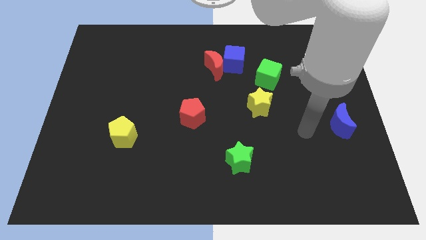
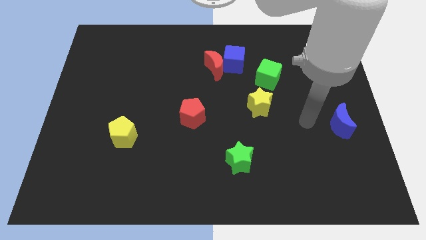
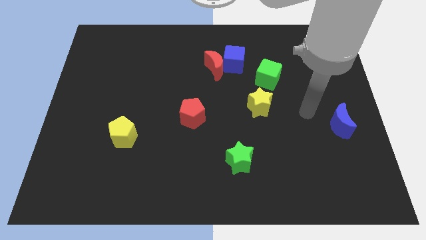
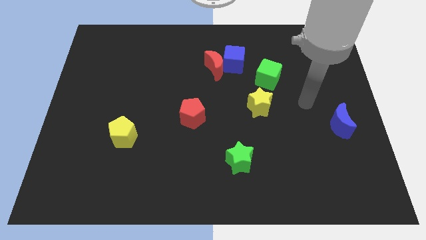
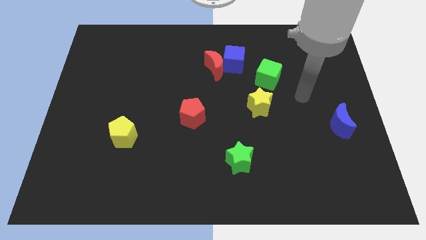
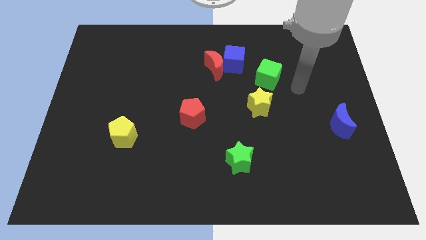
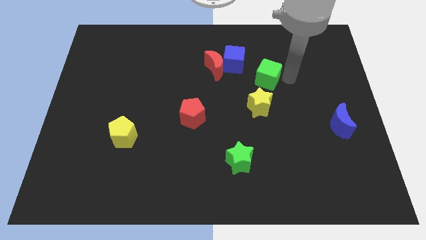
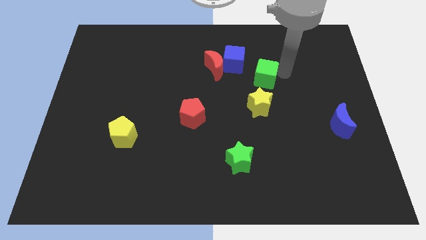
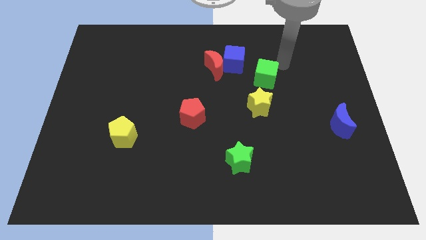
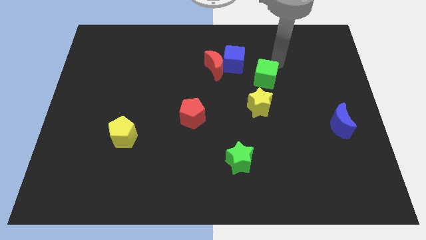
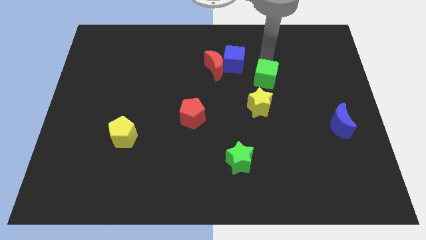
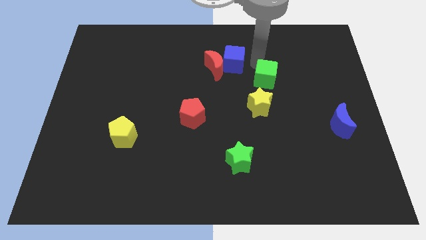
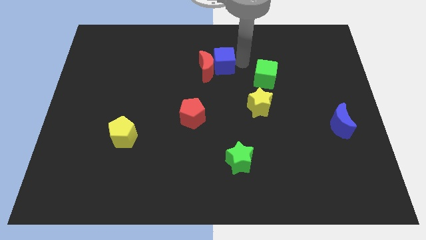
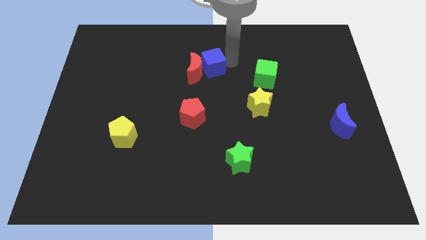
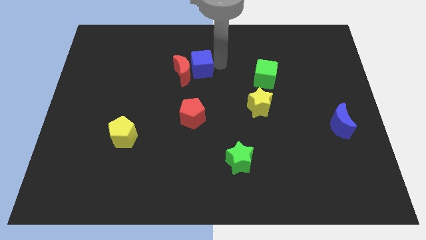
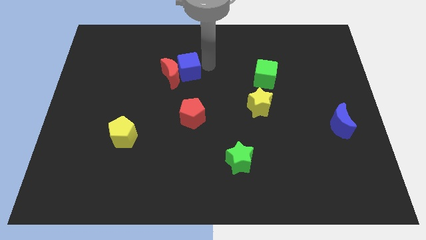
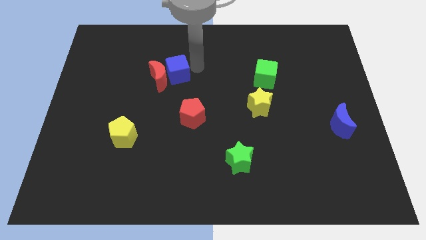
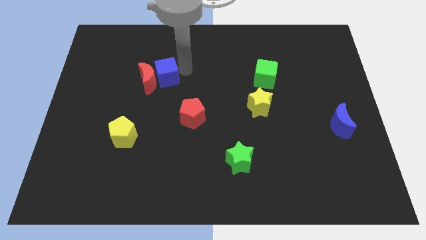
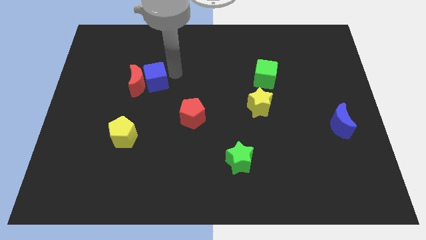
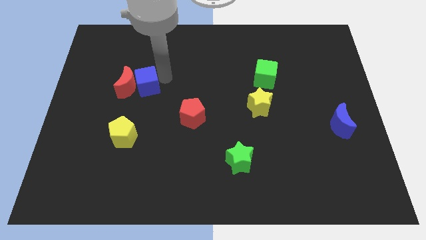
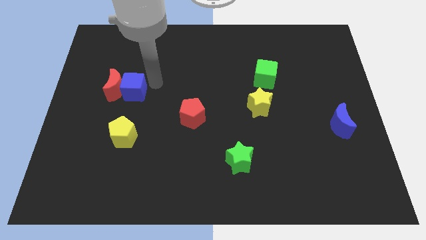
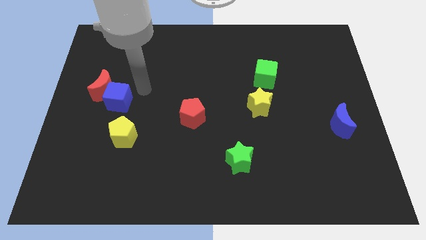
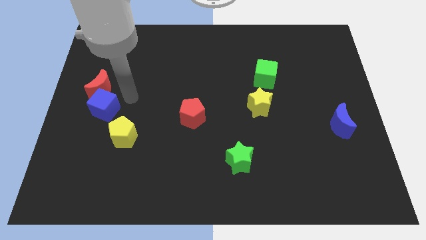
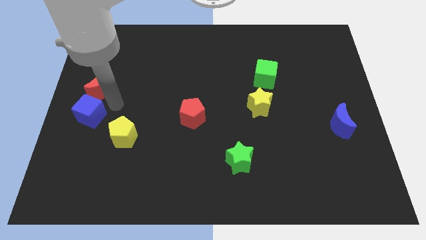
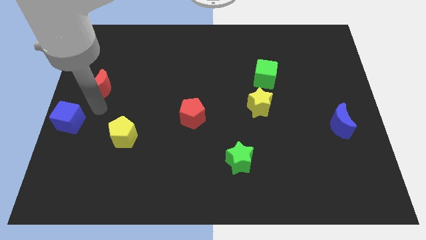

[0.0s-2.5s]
pull the red moon apart from the blue cube

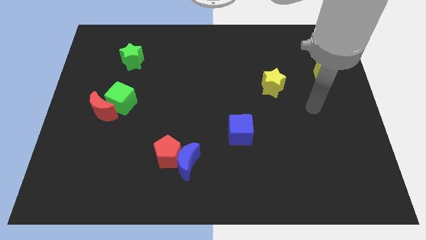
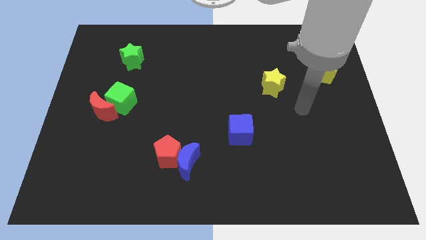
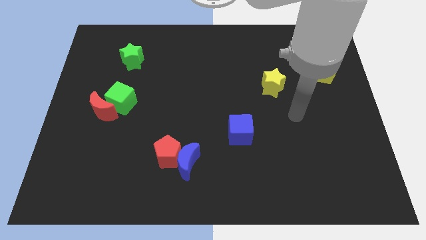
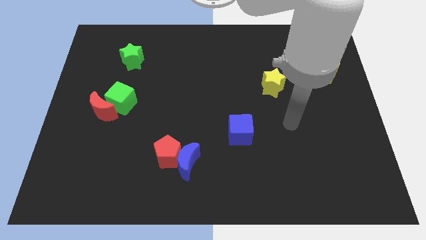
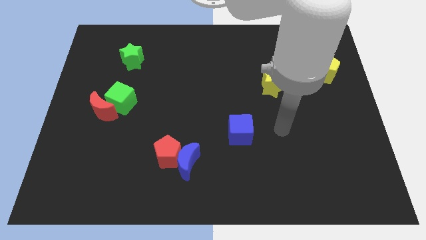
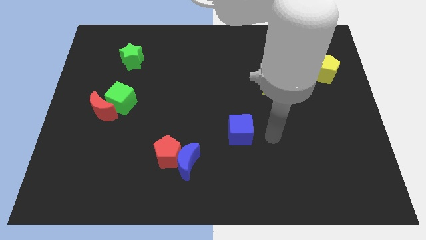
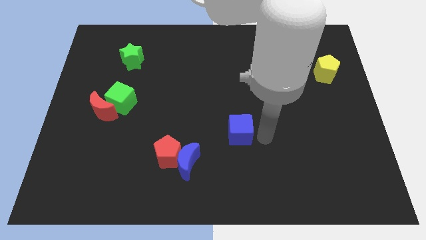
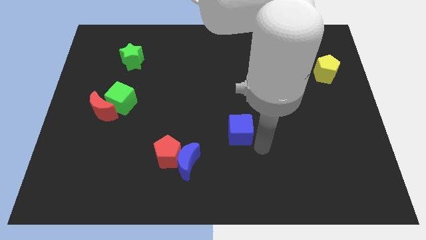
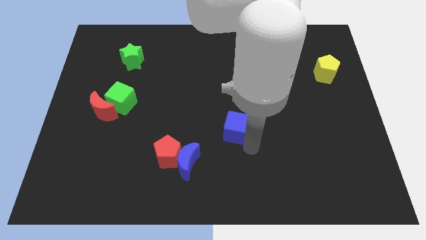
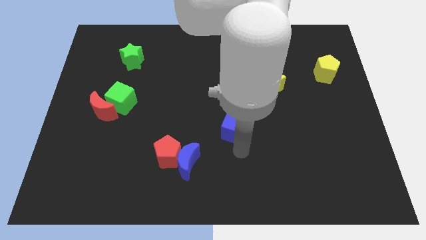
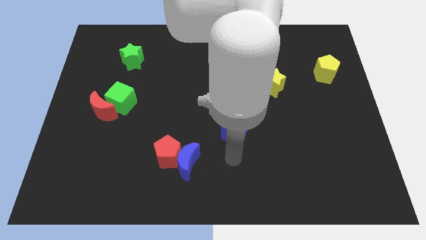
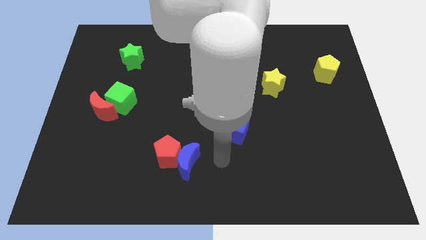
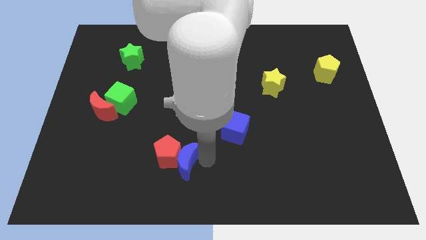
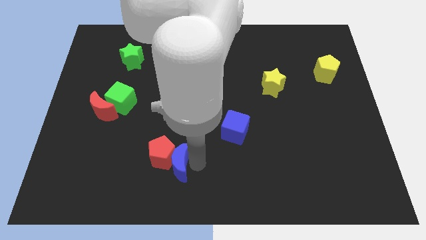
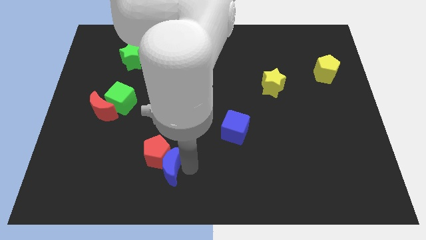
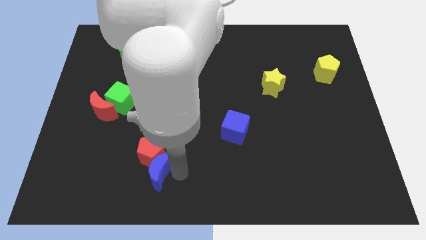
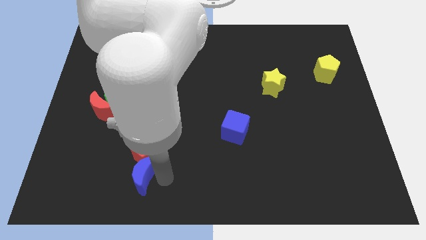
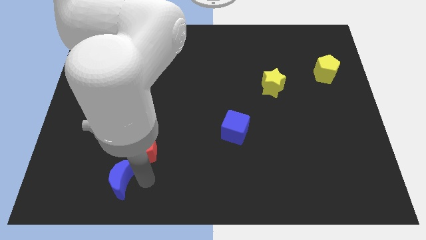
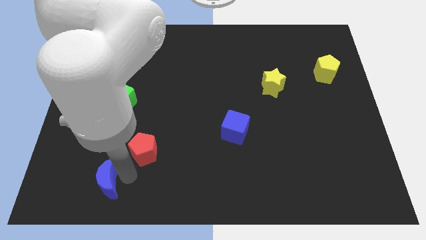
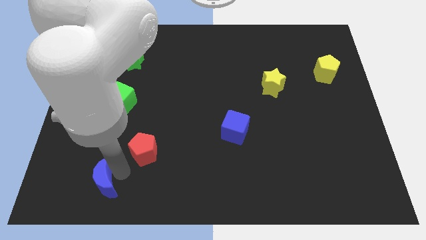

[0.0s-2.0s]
move the red pentagon away from the blue moon

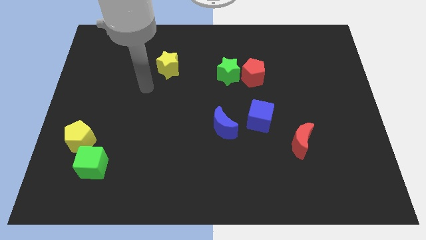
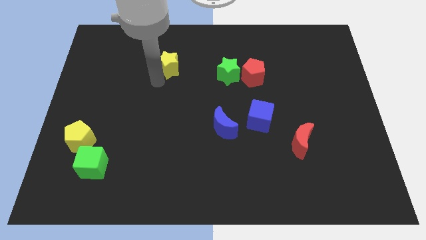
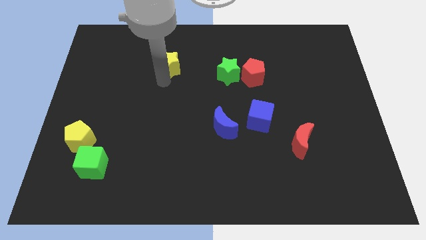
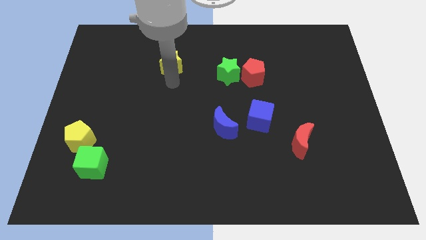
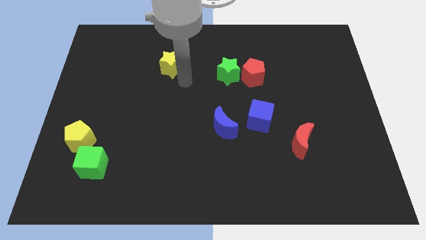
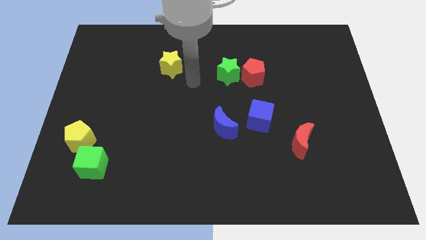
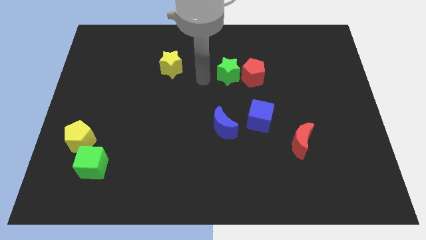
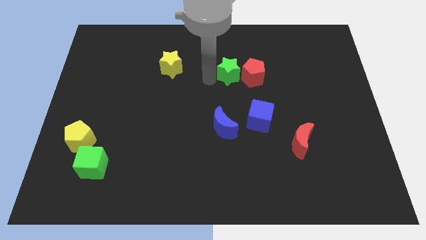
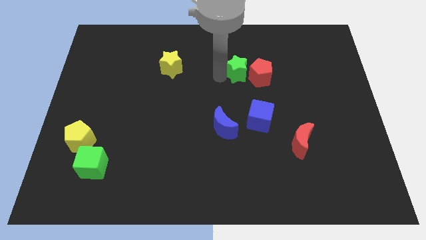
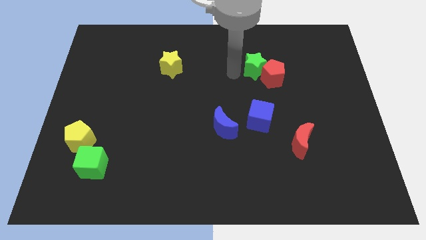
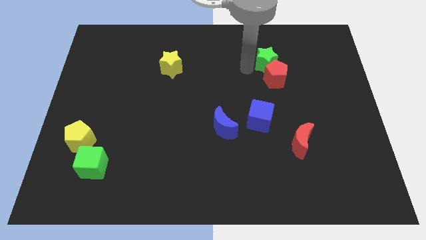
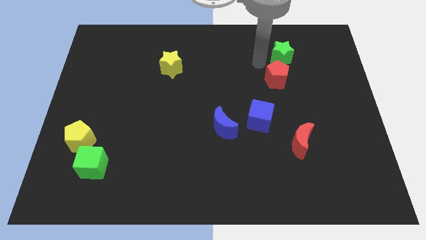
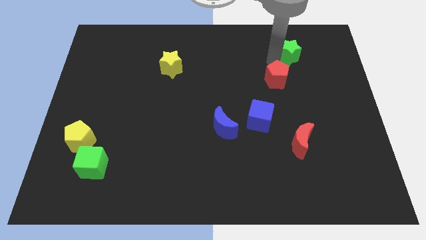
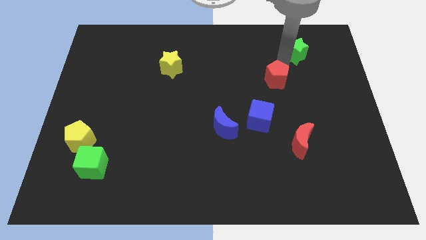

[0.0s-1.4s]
pull the red pentagon apart from the green star

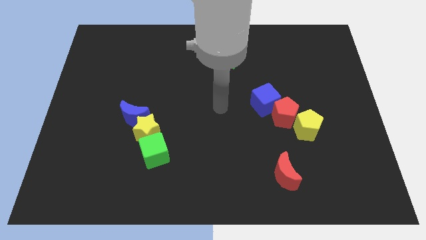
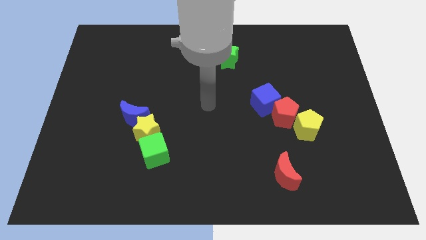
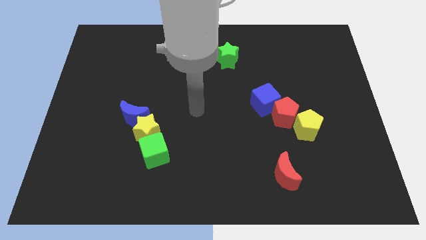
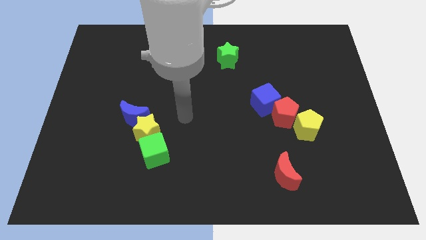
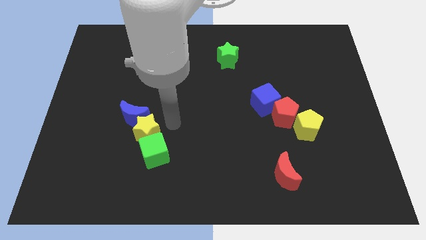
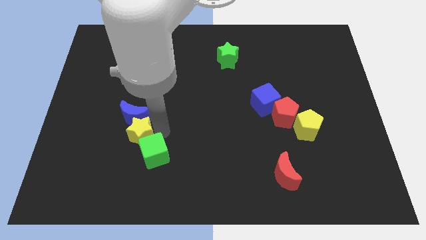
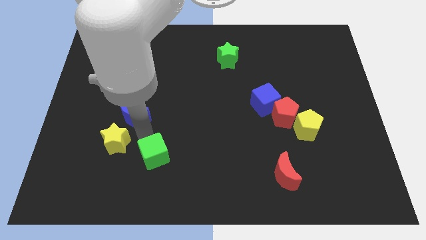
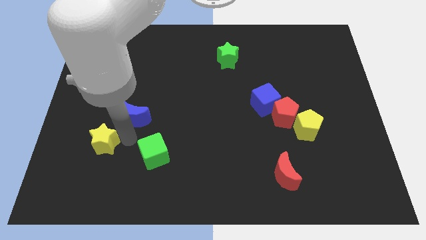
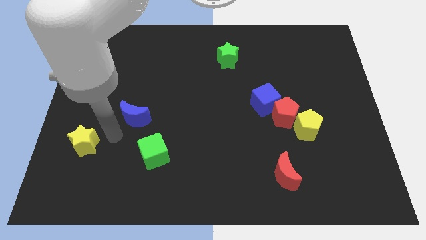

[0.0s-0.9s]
pull the blue moon apart from the yellow star

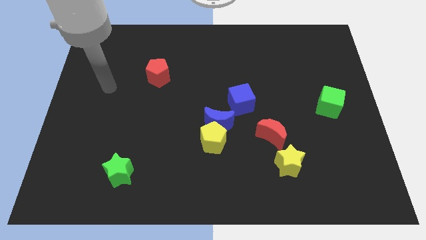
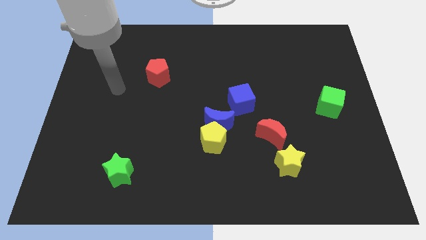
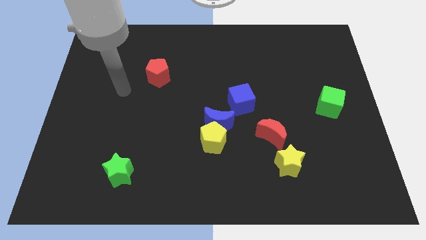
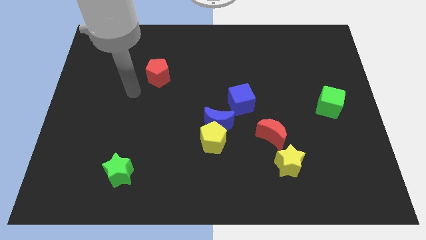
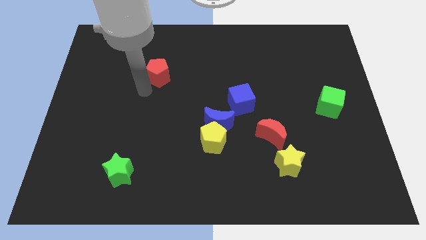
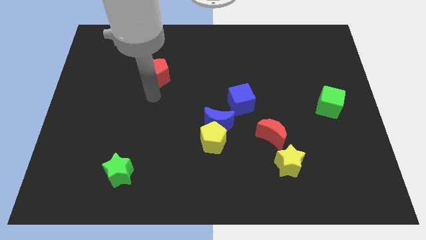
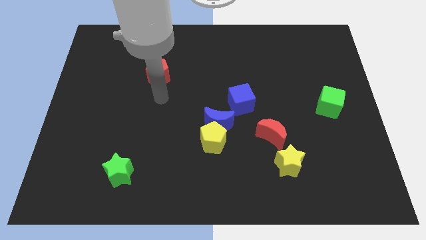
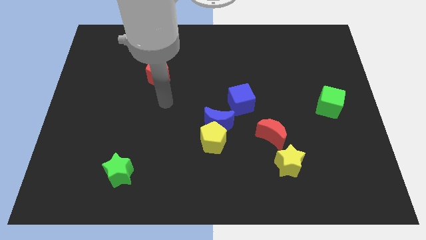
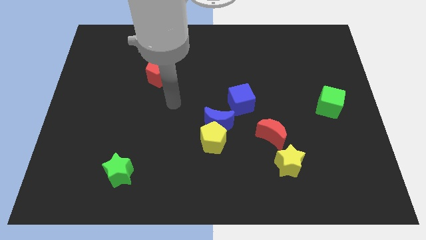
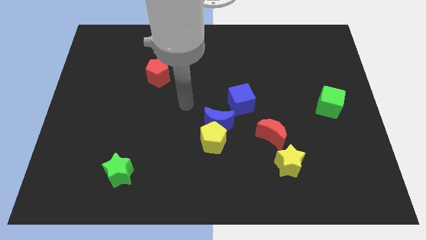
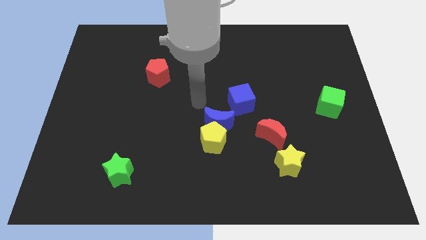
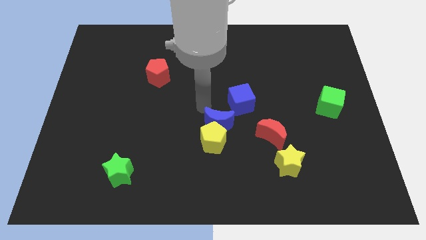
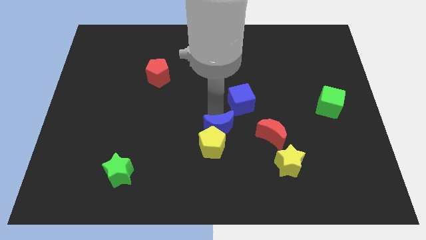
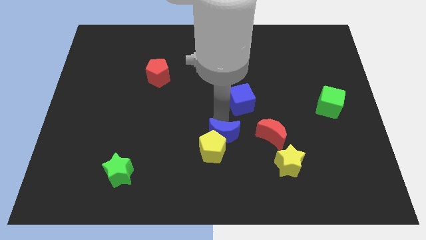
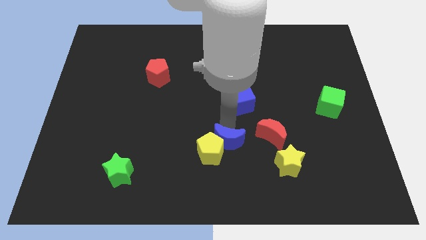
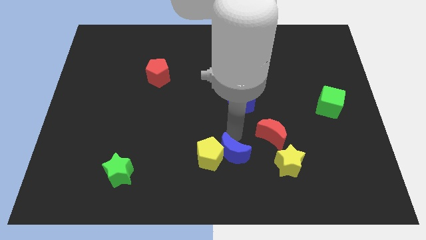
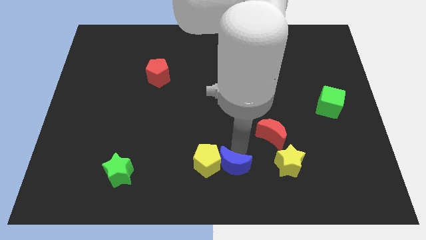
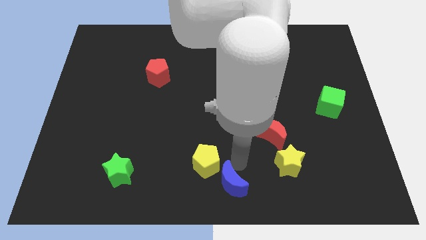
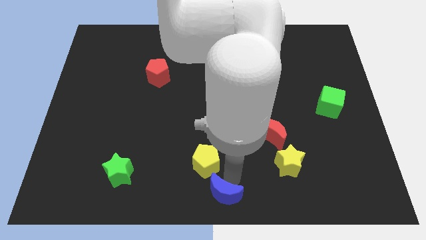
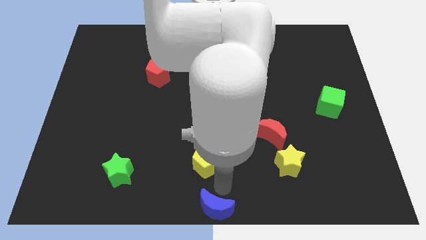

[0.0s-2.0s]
separate the yellow pentagon from the blue moon

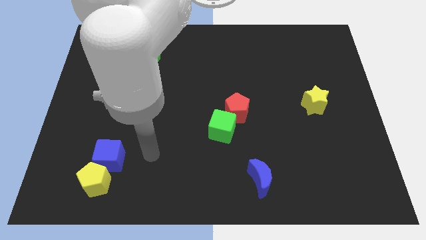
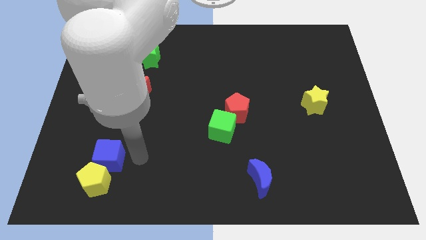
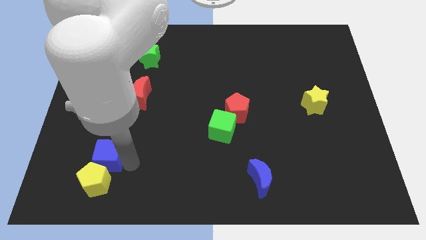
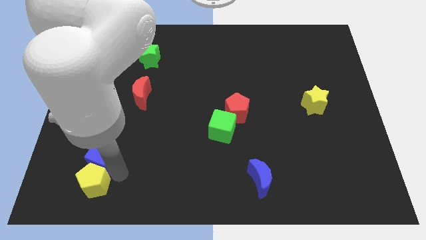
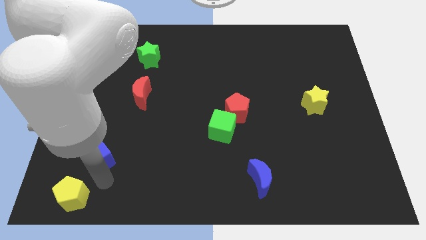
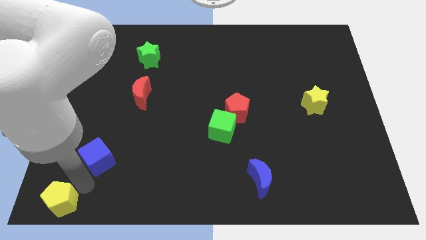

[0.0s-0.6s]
move the blue cube away from the yellow pentagon
